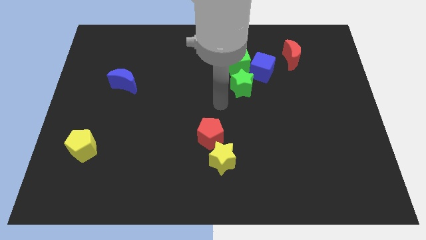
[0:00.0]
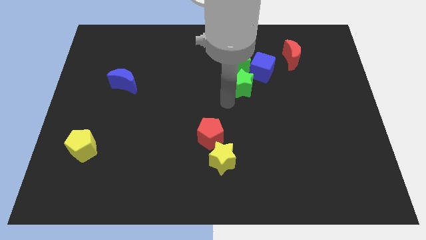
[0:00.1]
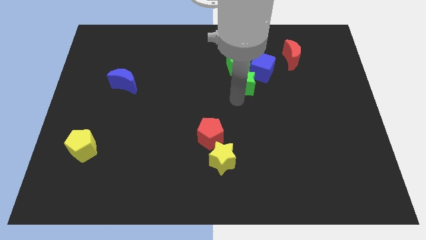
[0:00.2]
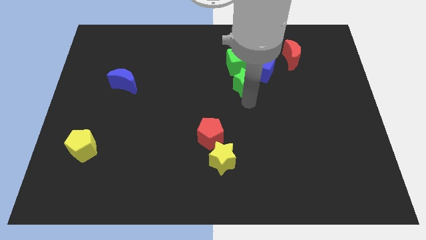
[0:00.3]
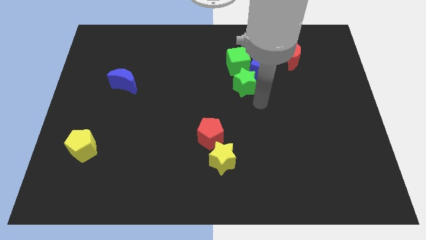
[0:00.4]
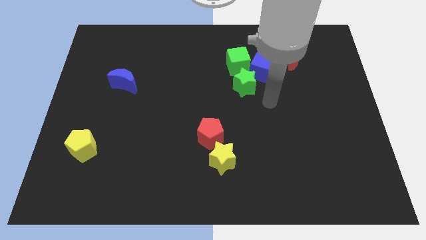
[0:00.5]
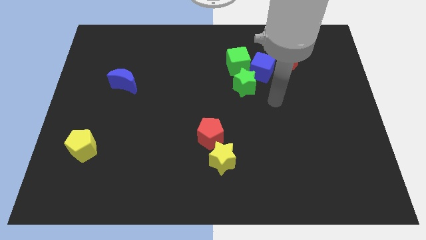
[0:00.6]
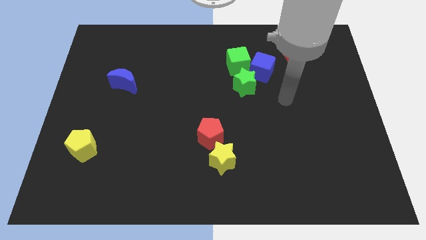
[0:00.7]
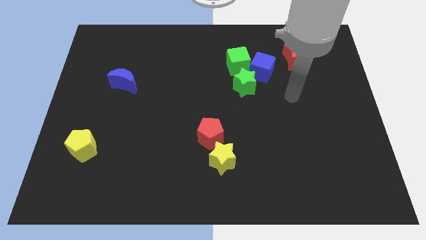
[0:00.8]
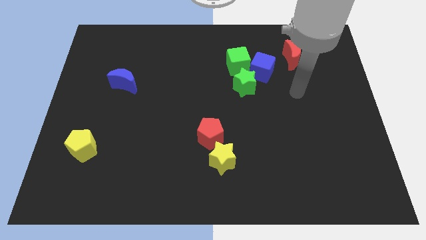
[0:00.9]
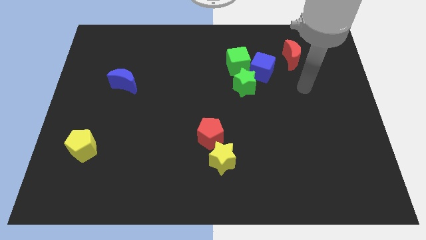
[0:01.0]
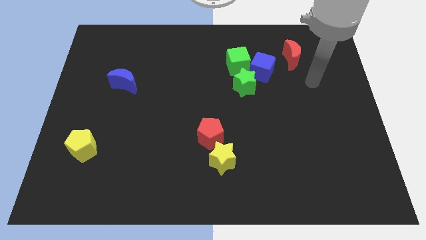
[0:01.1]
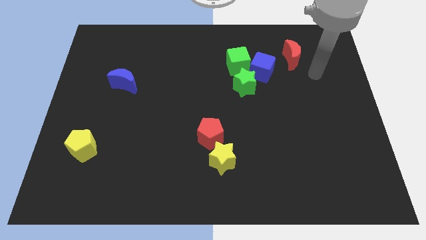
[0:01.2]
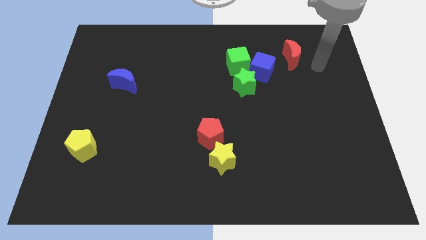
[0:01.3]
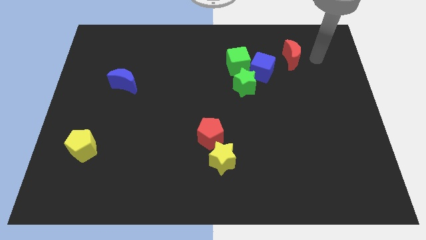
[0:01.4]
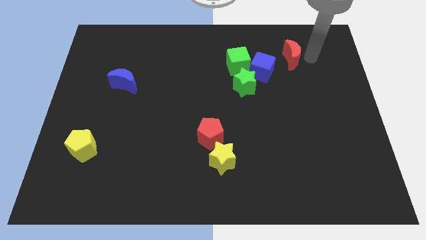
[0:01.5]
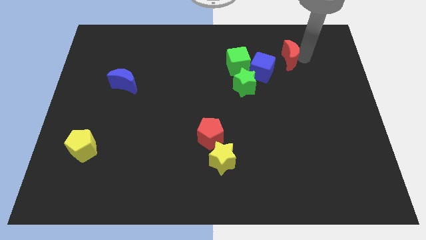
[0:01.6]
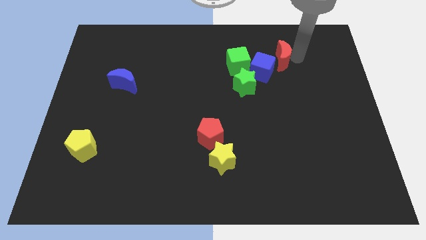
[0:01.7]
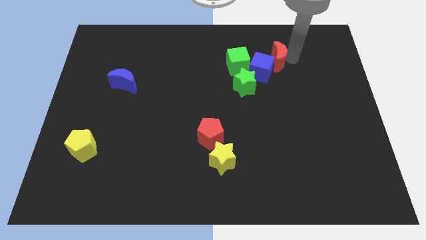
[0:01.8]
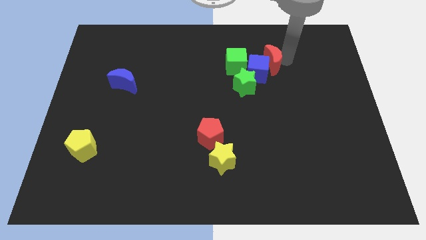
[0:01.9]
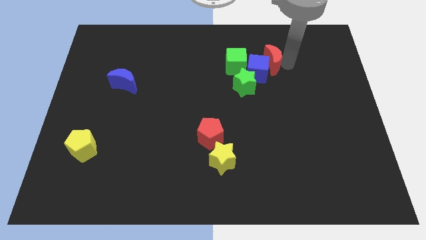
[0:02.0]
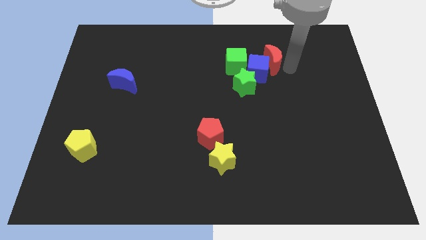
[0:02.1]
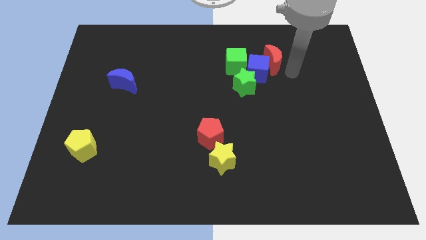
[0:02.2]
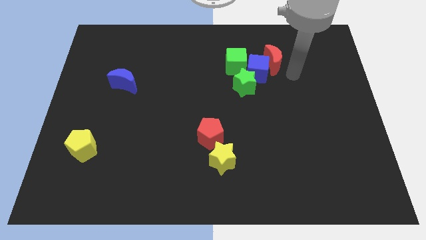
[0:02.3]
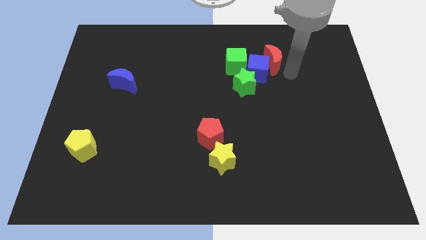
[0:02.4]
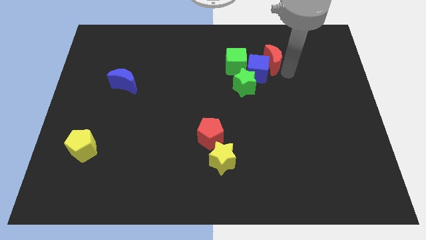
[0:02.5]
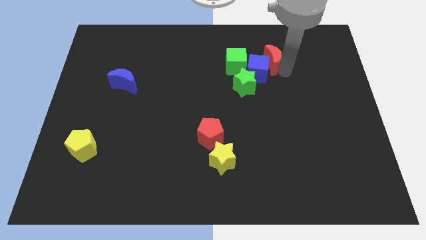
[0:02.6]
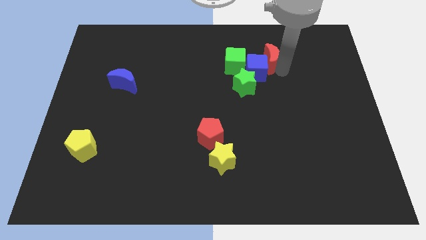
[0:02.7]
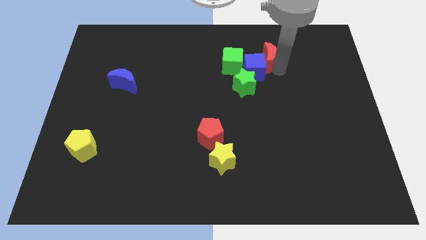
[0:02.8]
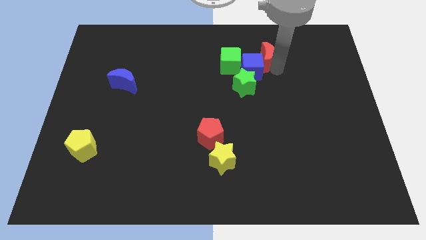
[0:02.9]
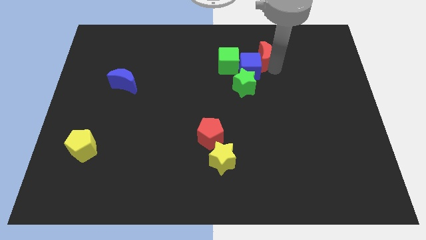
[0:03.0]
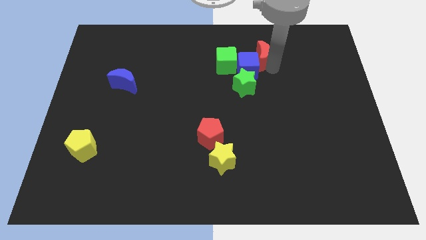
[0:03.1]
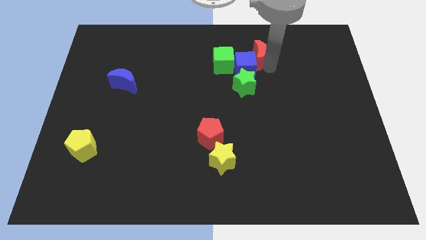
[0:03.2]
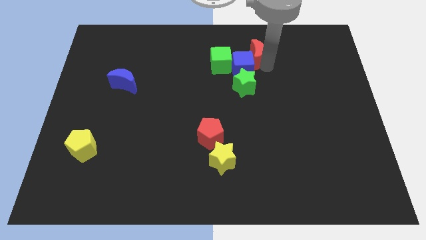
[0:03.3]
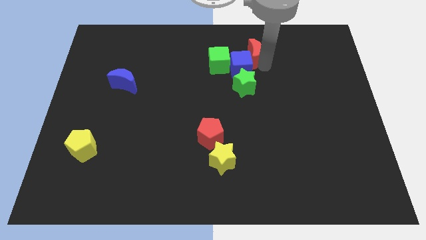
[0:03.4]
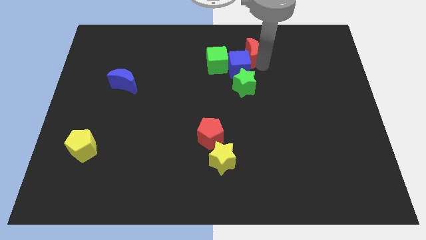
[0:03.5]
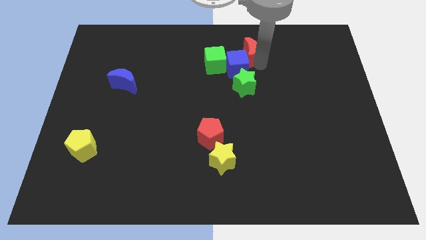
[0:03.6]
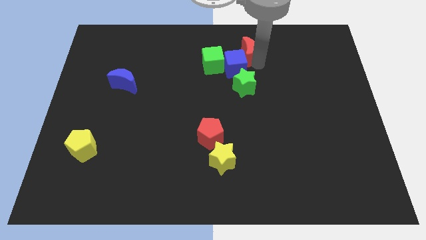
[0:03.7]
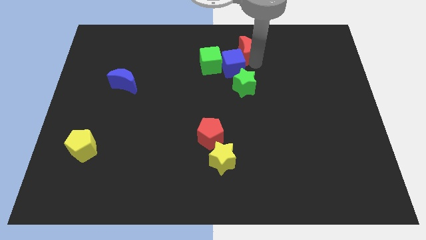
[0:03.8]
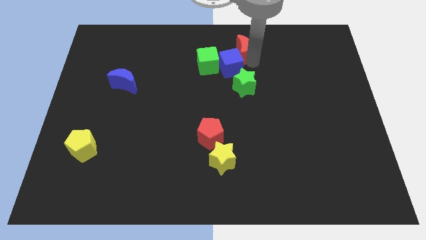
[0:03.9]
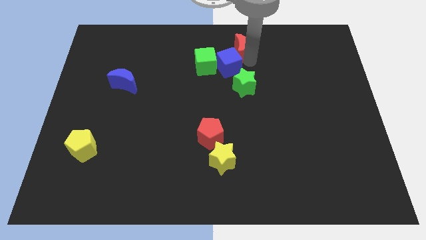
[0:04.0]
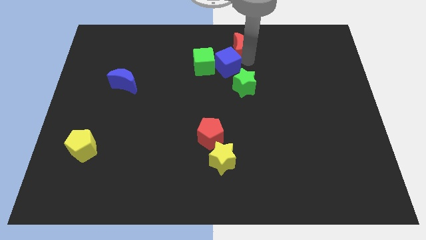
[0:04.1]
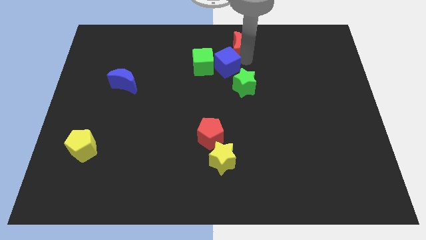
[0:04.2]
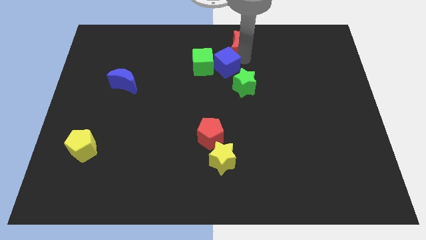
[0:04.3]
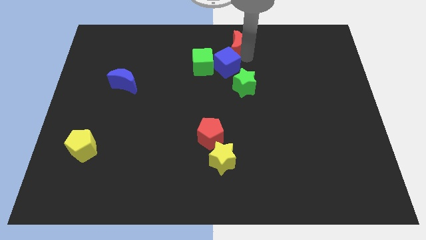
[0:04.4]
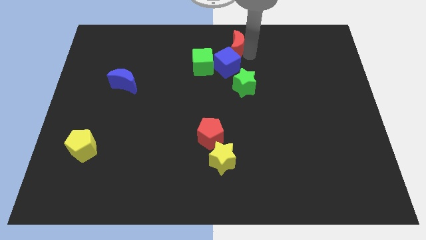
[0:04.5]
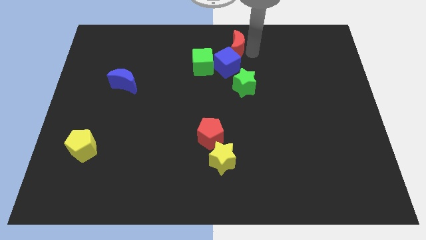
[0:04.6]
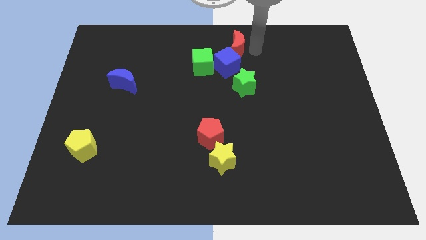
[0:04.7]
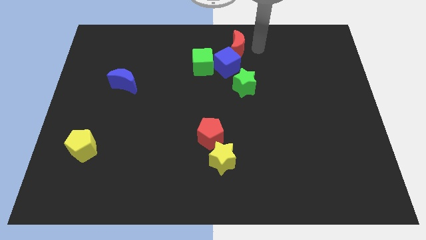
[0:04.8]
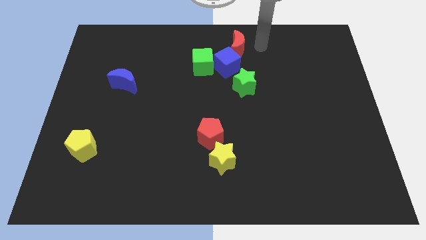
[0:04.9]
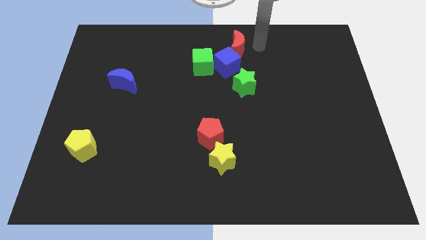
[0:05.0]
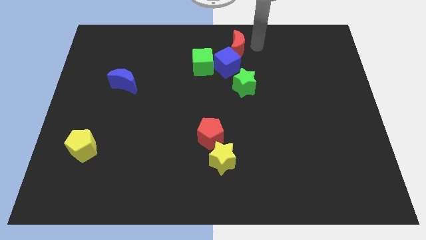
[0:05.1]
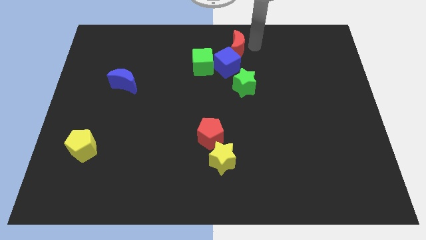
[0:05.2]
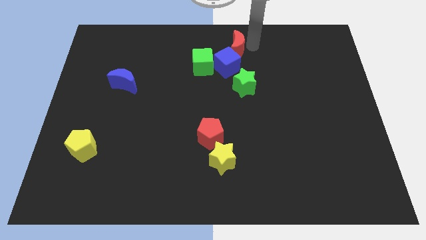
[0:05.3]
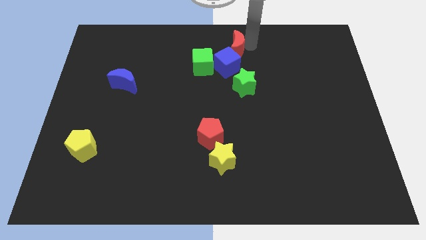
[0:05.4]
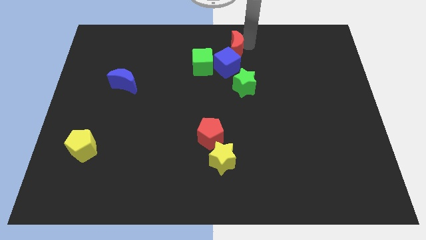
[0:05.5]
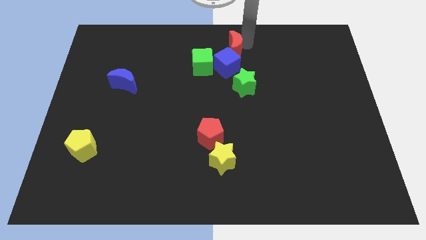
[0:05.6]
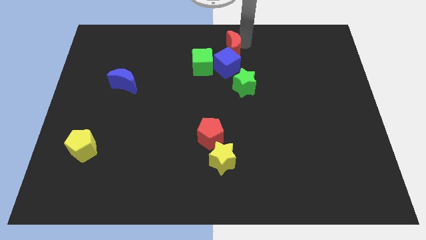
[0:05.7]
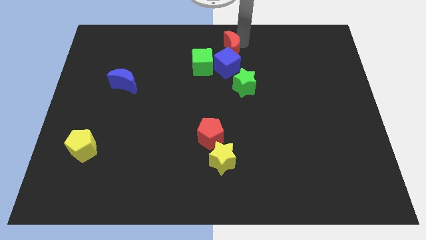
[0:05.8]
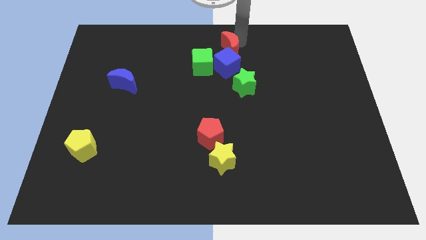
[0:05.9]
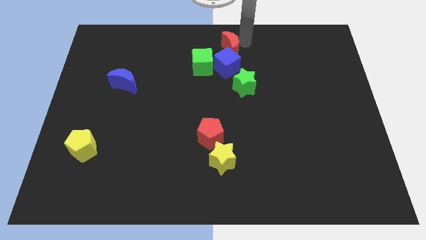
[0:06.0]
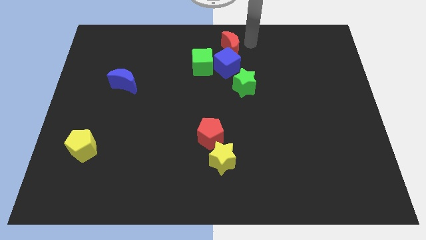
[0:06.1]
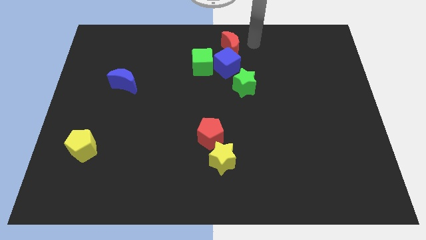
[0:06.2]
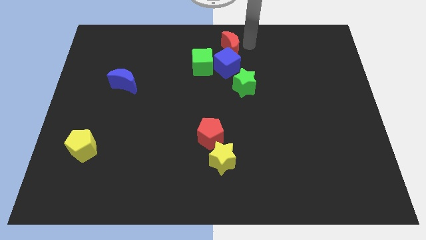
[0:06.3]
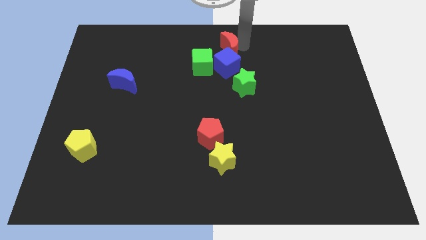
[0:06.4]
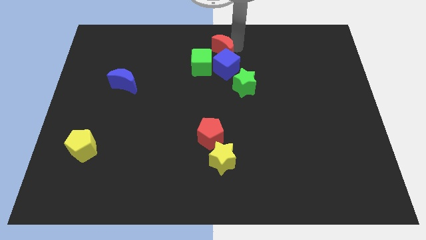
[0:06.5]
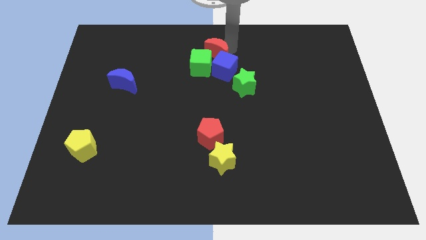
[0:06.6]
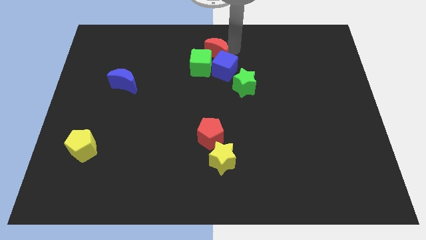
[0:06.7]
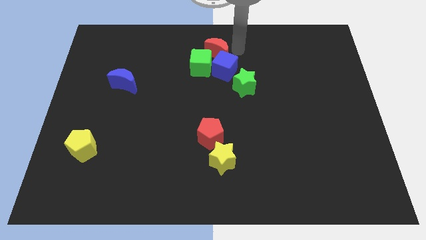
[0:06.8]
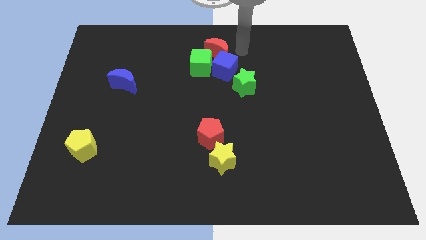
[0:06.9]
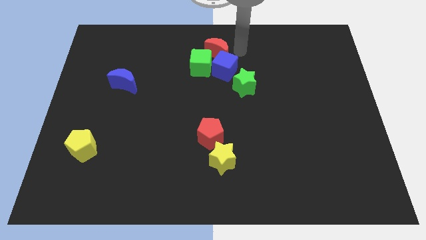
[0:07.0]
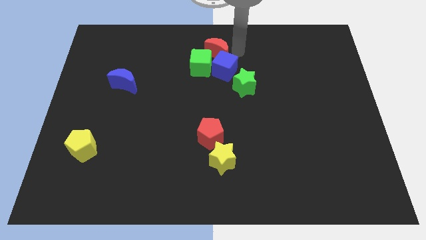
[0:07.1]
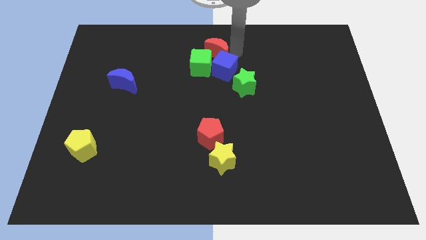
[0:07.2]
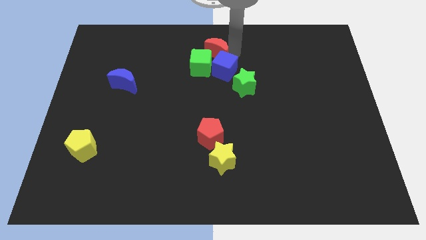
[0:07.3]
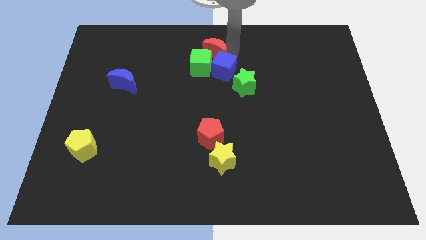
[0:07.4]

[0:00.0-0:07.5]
push the red moon left

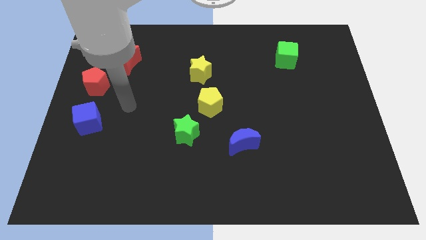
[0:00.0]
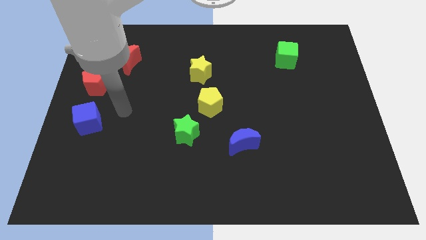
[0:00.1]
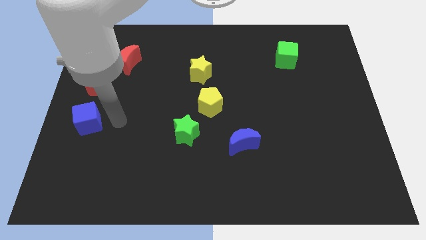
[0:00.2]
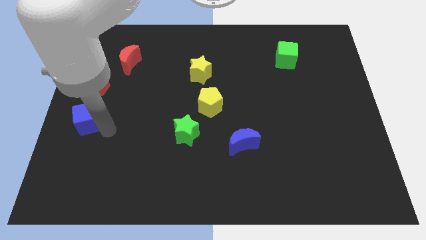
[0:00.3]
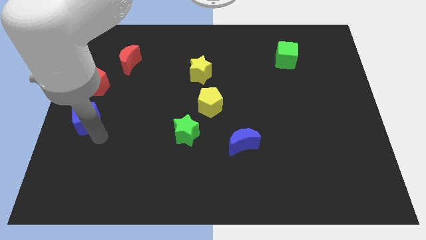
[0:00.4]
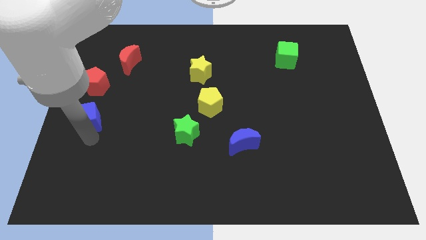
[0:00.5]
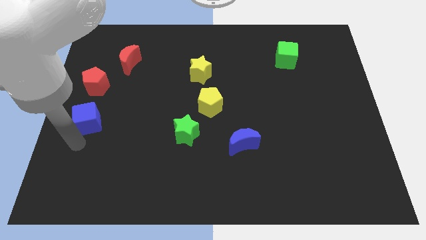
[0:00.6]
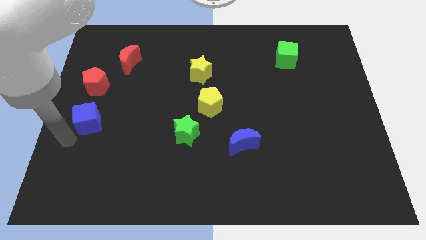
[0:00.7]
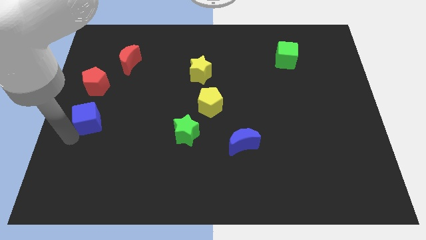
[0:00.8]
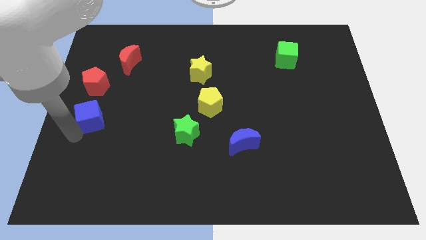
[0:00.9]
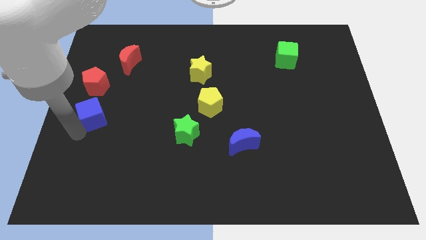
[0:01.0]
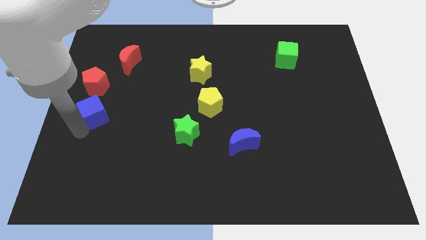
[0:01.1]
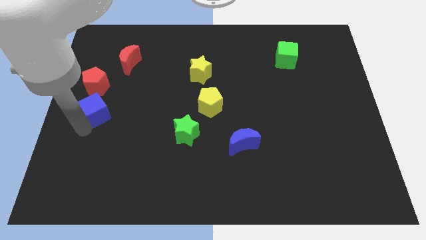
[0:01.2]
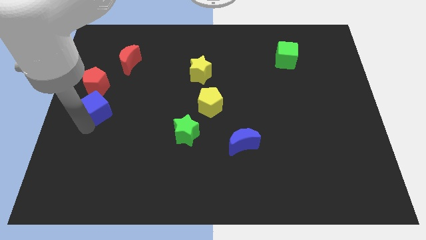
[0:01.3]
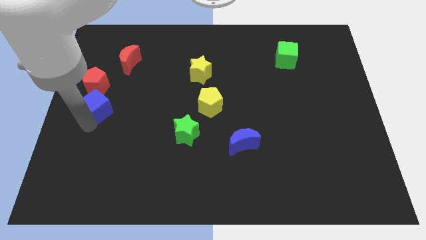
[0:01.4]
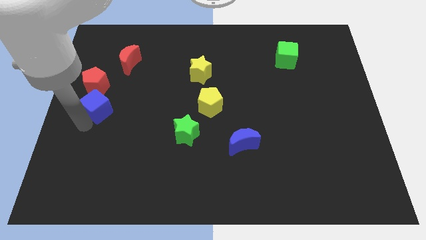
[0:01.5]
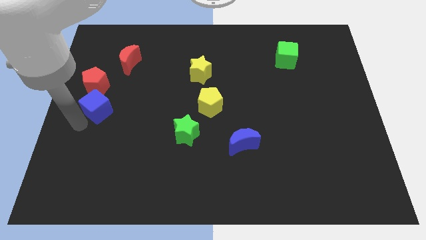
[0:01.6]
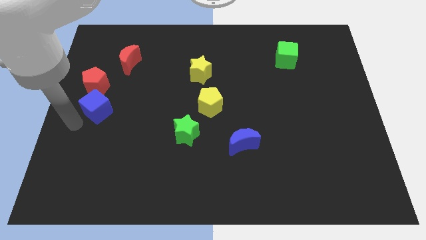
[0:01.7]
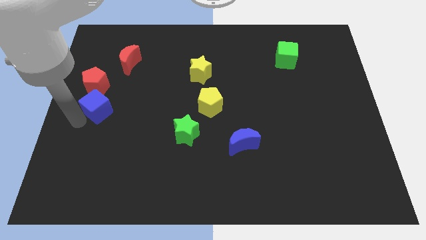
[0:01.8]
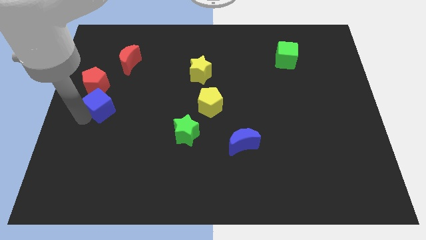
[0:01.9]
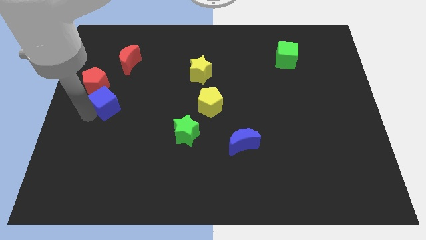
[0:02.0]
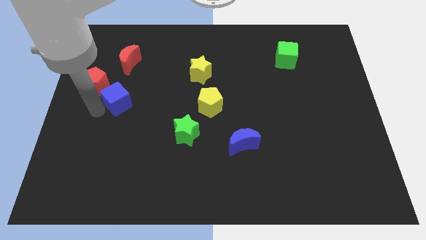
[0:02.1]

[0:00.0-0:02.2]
push the blue cube somewhat diagonally up and to the right
